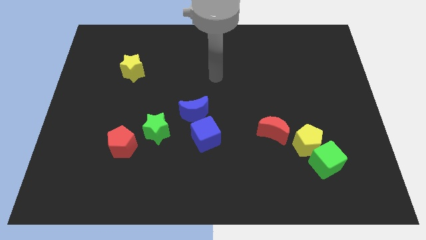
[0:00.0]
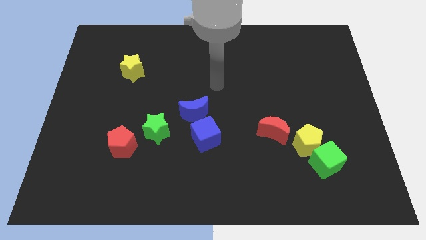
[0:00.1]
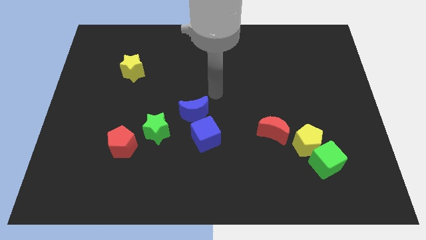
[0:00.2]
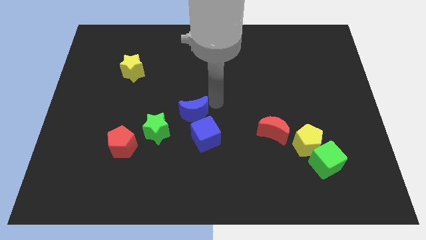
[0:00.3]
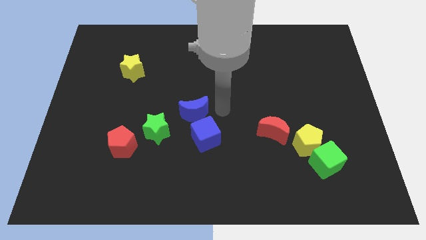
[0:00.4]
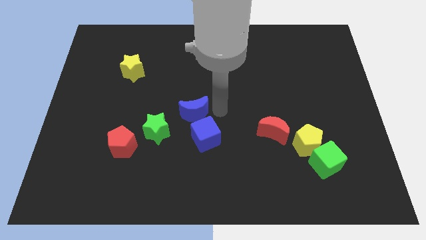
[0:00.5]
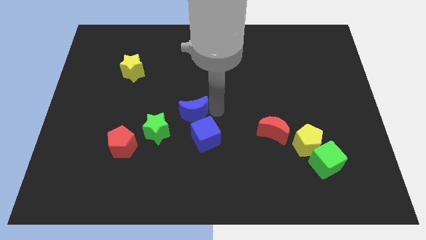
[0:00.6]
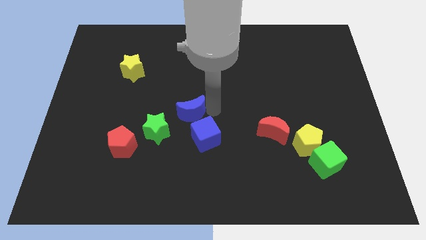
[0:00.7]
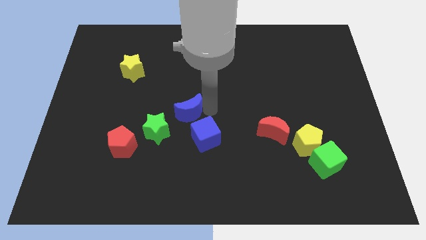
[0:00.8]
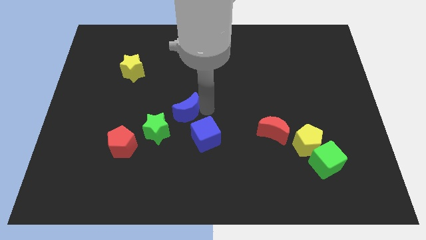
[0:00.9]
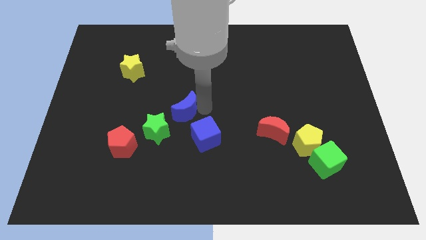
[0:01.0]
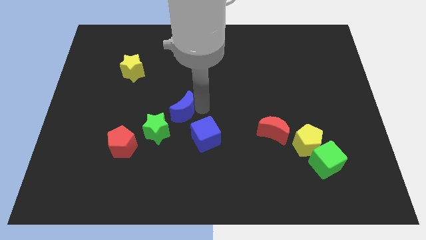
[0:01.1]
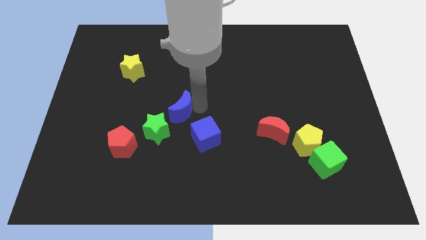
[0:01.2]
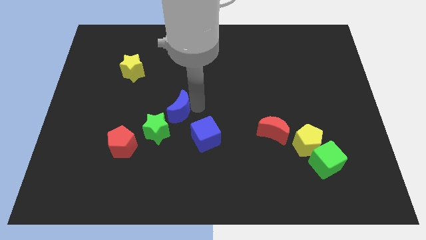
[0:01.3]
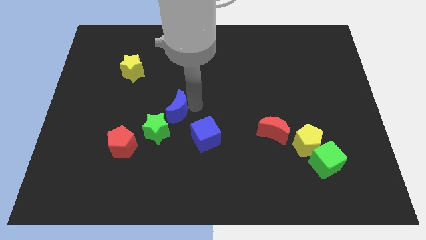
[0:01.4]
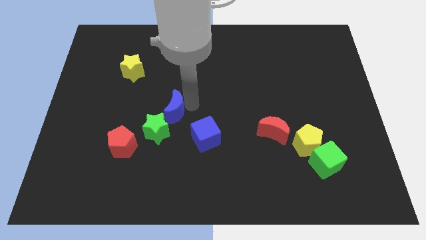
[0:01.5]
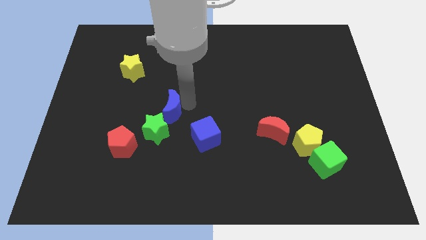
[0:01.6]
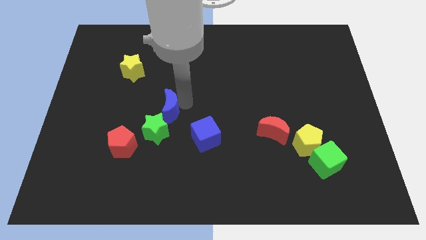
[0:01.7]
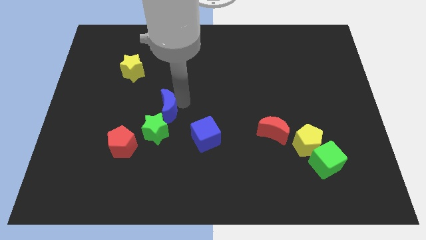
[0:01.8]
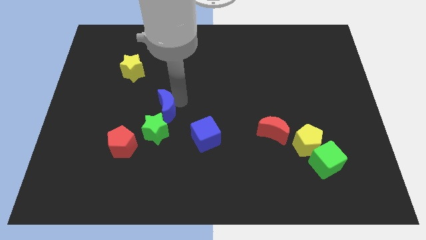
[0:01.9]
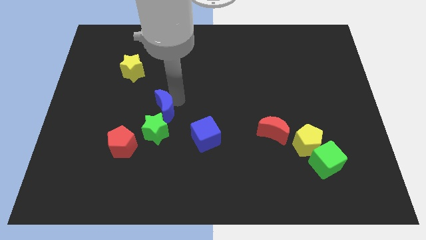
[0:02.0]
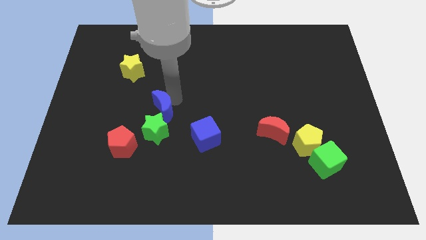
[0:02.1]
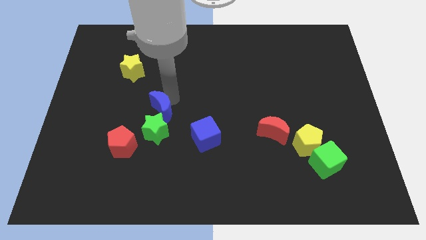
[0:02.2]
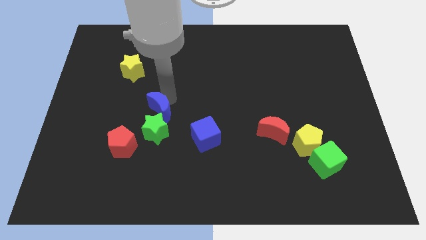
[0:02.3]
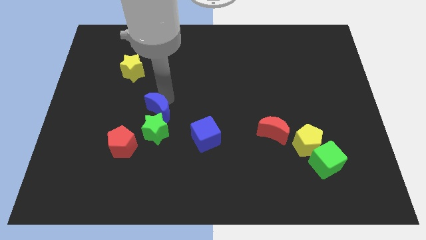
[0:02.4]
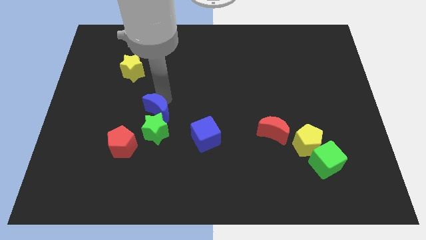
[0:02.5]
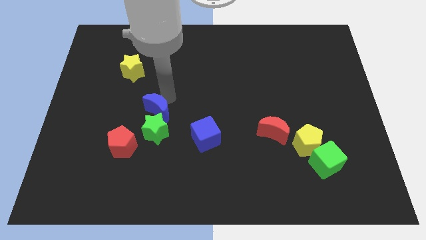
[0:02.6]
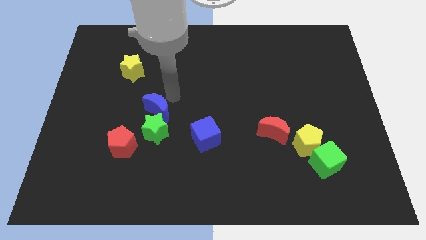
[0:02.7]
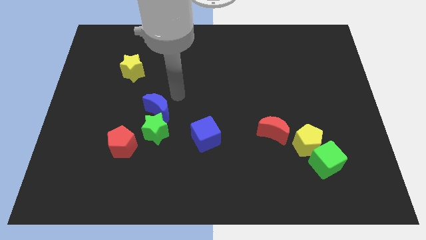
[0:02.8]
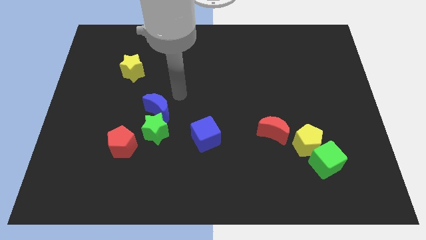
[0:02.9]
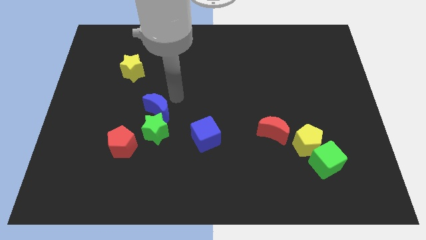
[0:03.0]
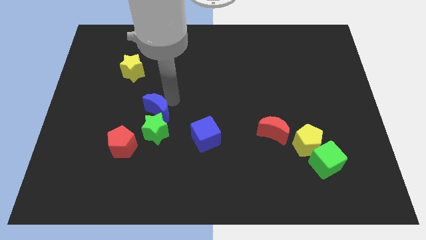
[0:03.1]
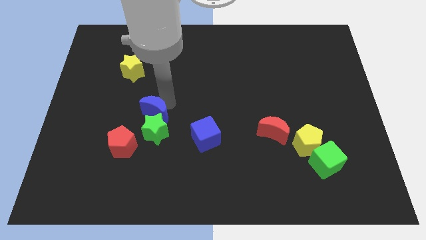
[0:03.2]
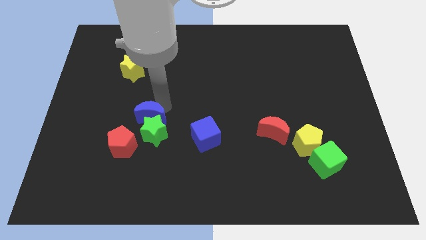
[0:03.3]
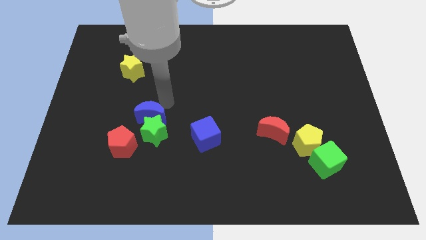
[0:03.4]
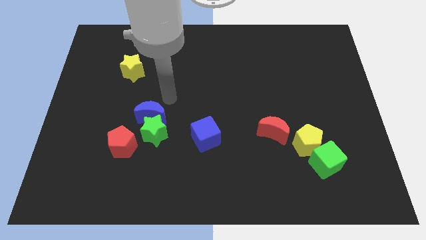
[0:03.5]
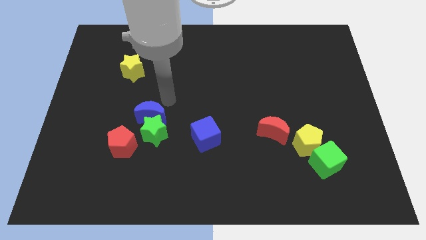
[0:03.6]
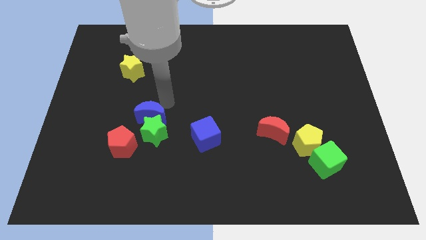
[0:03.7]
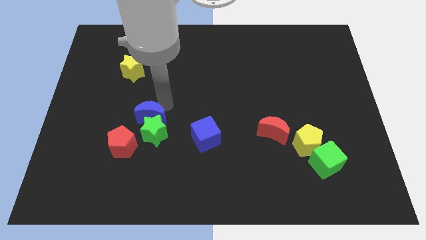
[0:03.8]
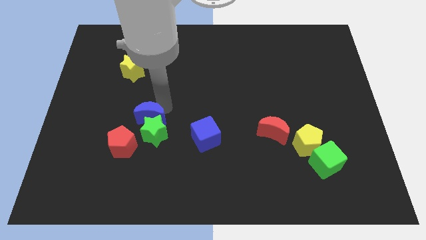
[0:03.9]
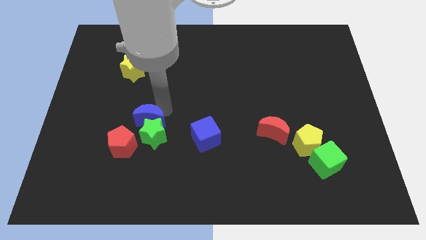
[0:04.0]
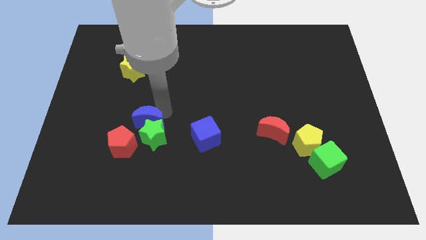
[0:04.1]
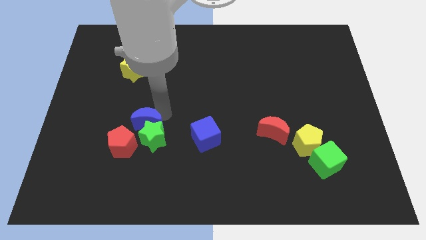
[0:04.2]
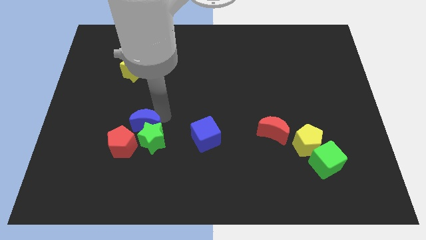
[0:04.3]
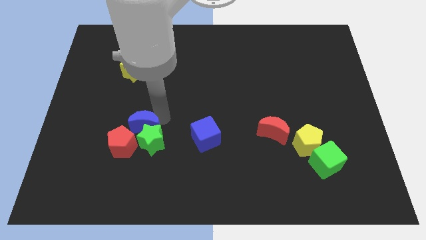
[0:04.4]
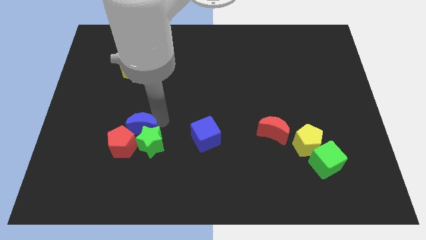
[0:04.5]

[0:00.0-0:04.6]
slide the blue moon towards the red pentagon

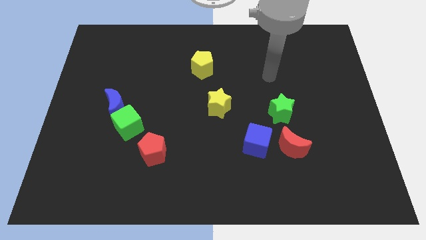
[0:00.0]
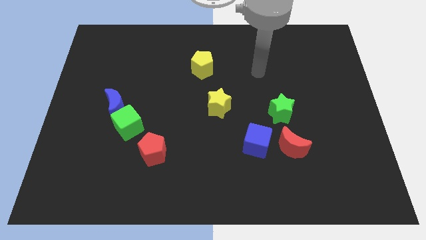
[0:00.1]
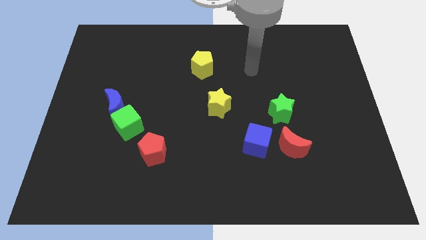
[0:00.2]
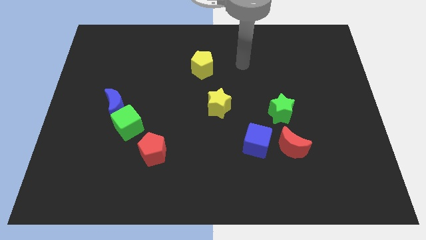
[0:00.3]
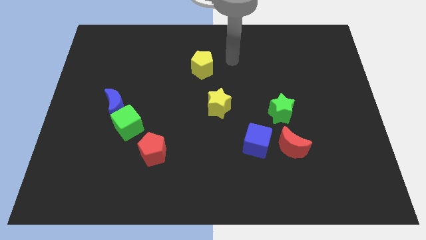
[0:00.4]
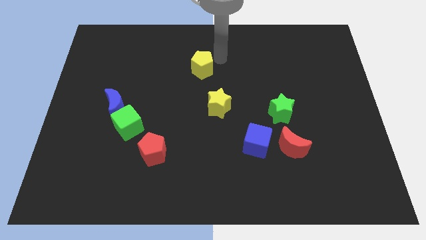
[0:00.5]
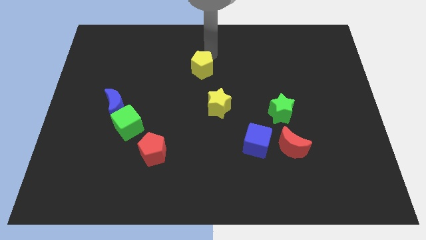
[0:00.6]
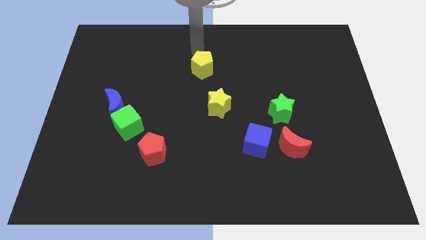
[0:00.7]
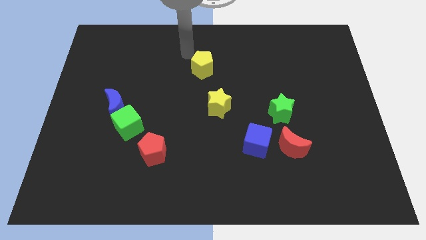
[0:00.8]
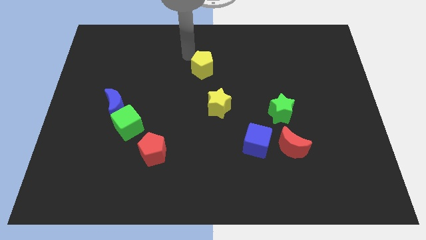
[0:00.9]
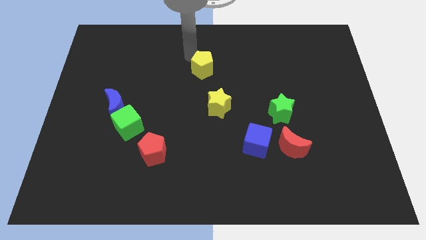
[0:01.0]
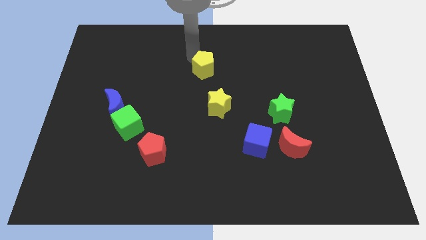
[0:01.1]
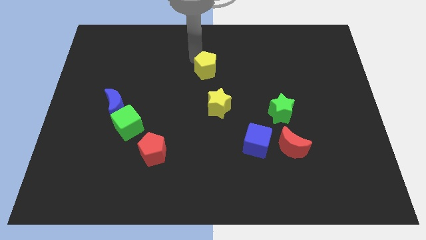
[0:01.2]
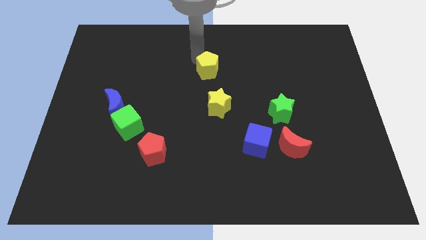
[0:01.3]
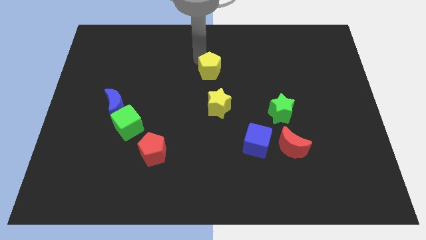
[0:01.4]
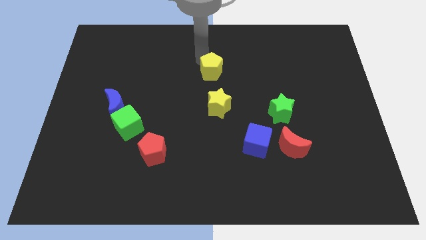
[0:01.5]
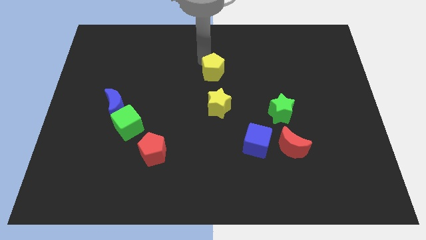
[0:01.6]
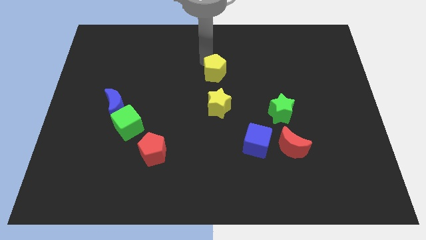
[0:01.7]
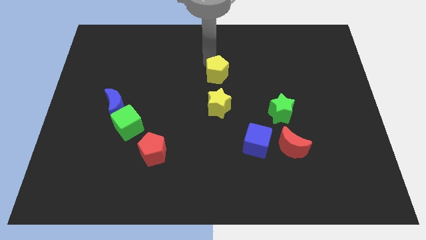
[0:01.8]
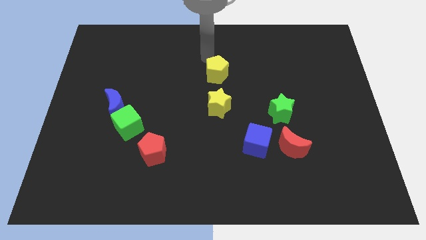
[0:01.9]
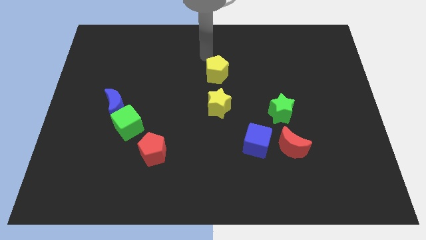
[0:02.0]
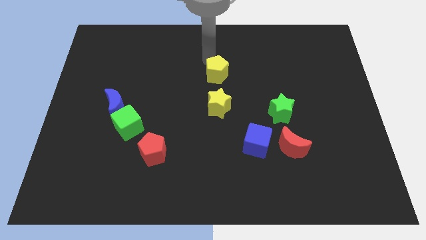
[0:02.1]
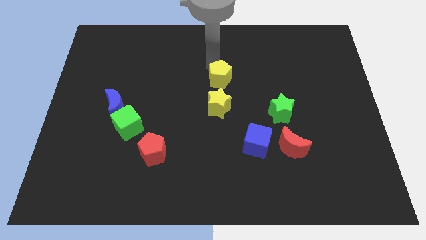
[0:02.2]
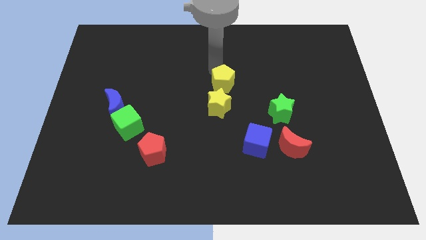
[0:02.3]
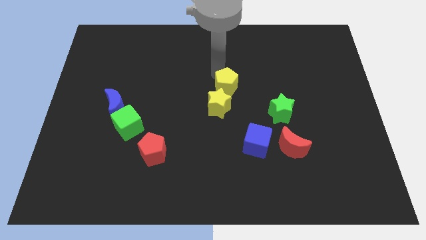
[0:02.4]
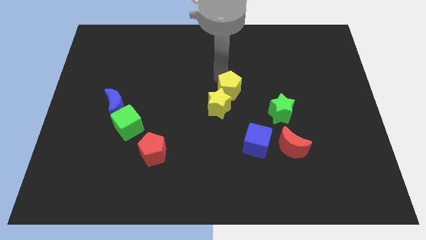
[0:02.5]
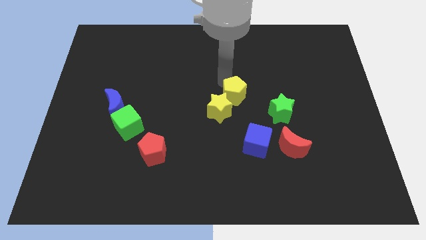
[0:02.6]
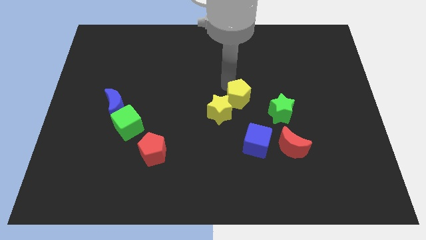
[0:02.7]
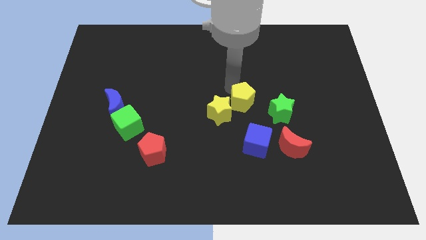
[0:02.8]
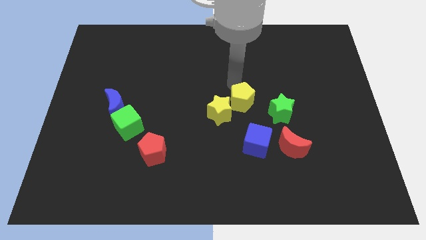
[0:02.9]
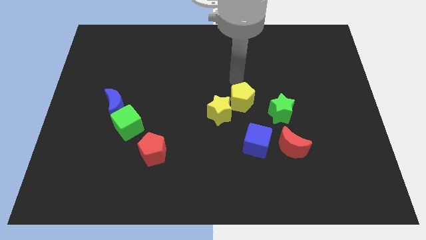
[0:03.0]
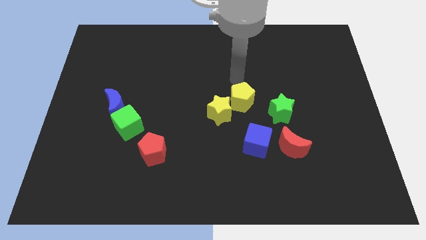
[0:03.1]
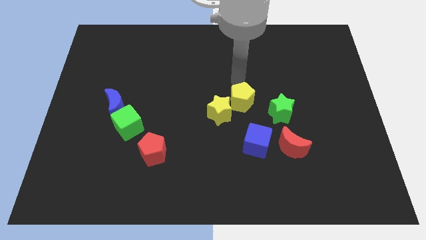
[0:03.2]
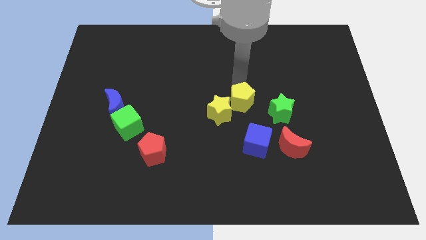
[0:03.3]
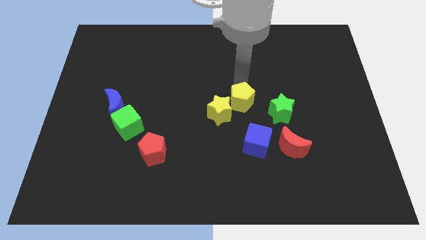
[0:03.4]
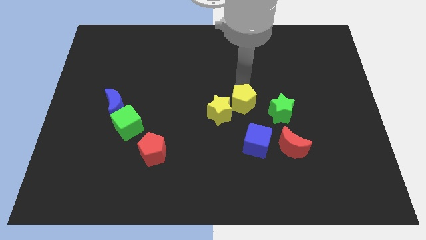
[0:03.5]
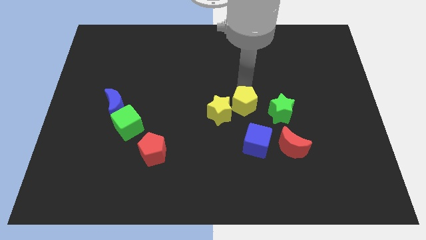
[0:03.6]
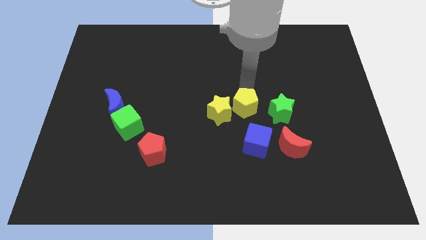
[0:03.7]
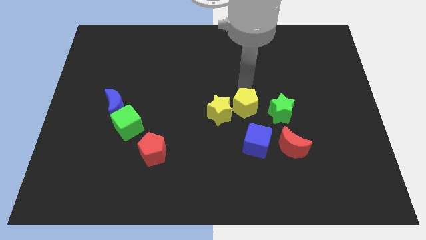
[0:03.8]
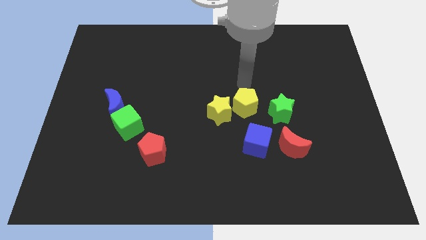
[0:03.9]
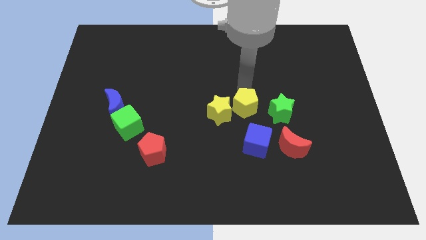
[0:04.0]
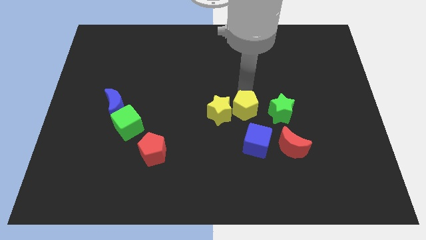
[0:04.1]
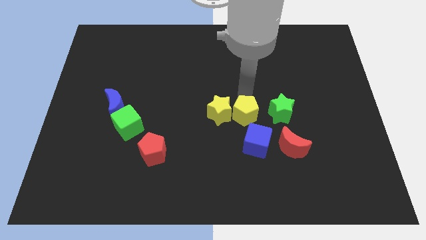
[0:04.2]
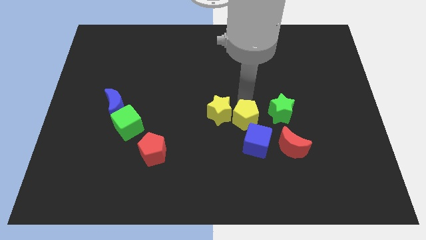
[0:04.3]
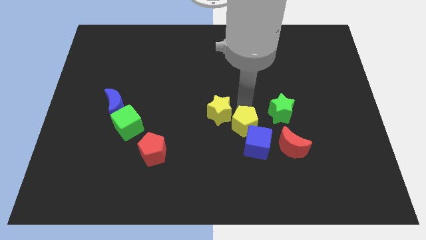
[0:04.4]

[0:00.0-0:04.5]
move the yellow pentagon close to the blue cube
